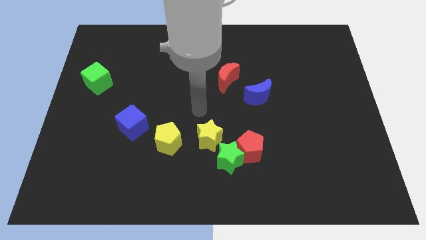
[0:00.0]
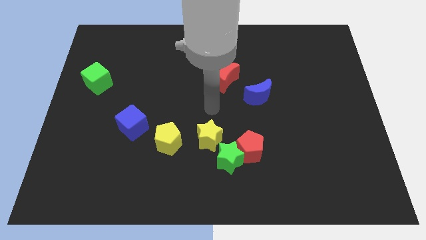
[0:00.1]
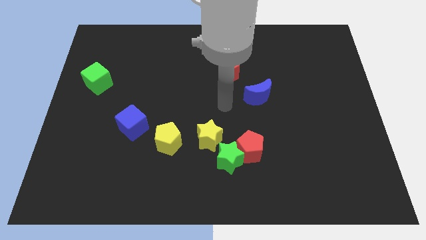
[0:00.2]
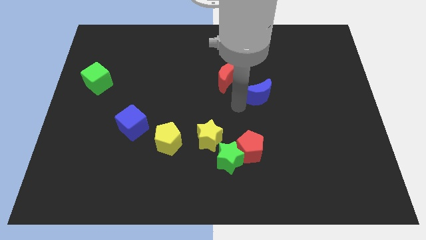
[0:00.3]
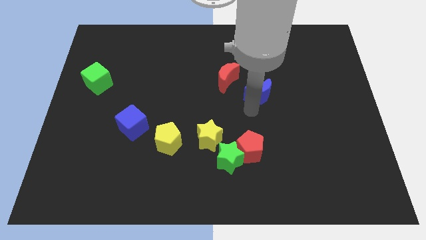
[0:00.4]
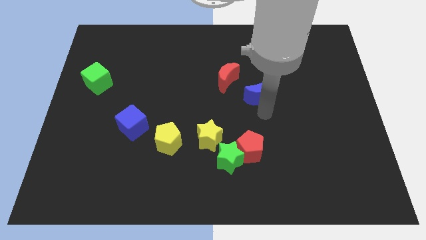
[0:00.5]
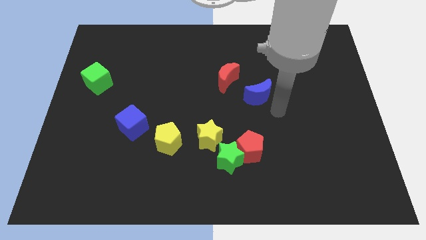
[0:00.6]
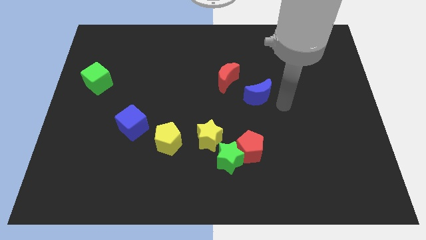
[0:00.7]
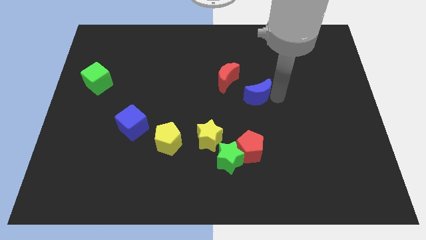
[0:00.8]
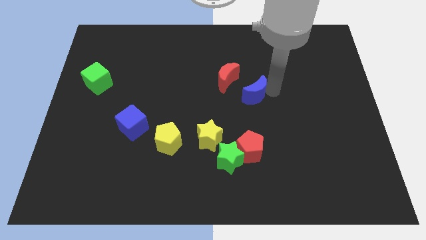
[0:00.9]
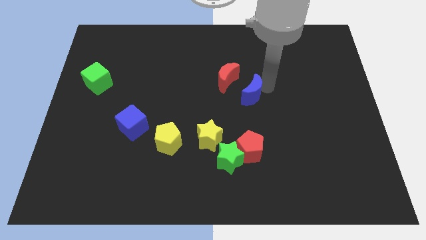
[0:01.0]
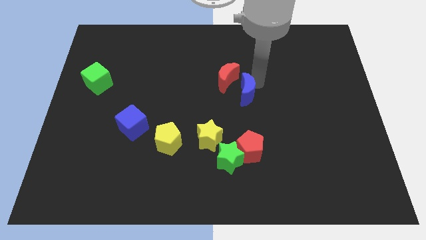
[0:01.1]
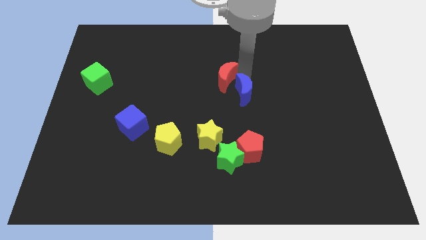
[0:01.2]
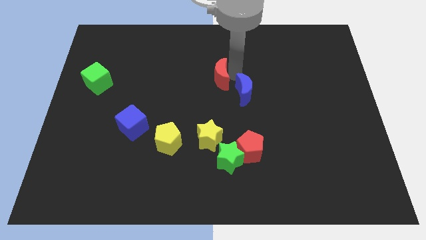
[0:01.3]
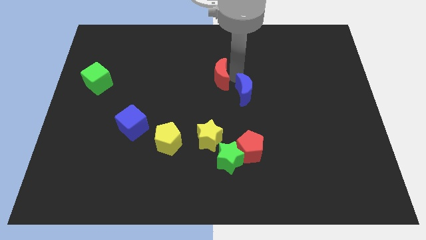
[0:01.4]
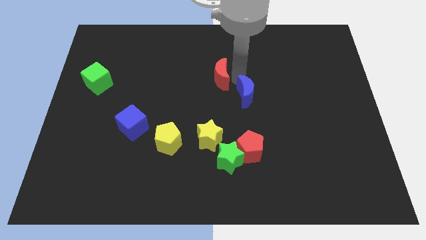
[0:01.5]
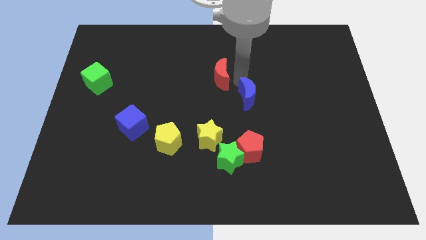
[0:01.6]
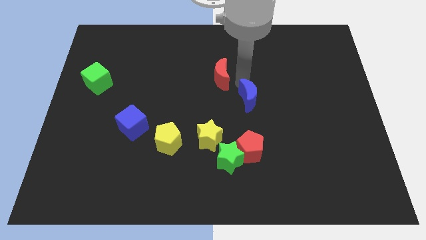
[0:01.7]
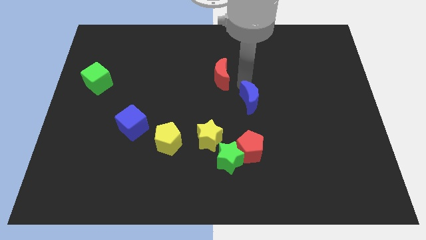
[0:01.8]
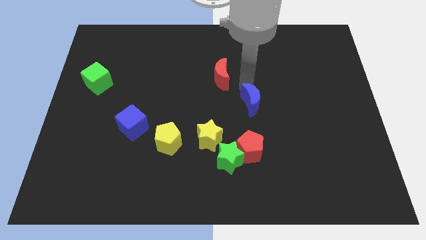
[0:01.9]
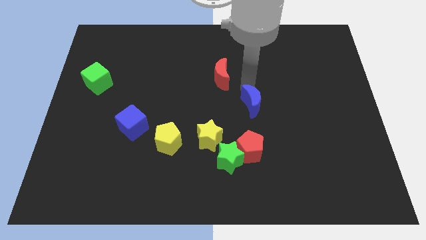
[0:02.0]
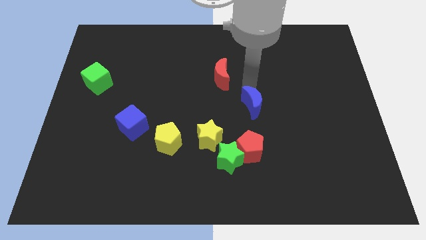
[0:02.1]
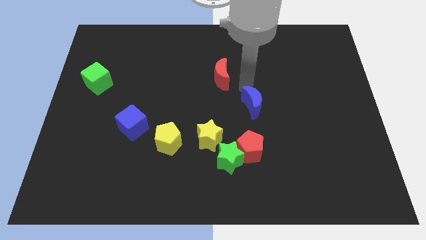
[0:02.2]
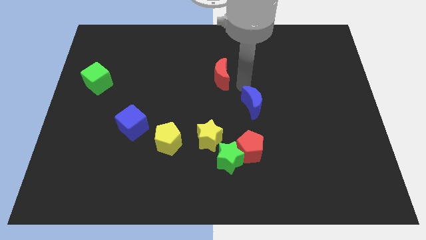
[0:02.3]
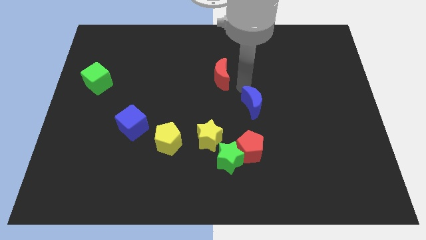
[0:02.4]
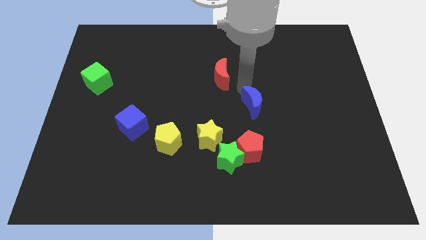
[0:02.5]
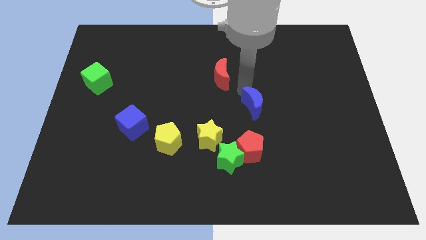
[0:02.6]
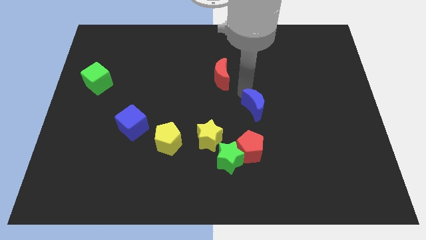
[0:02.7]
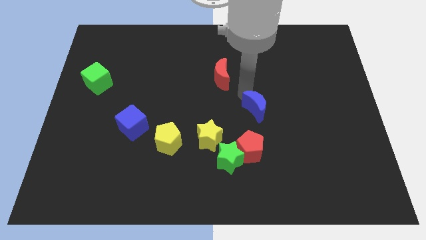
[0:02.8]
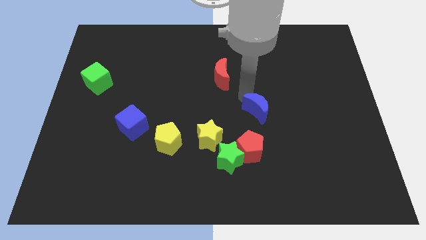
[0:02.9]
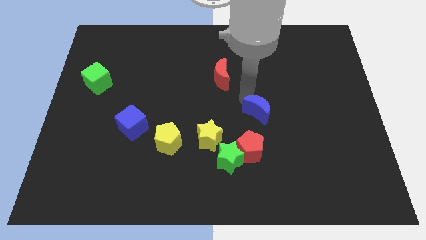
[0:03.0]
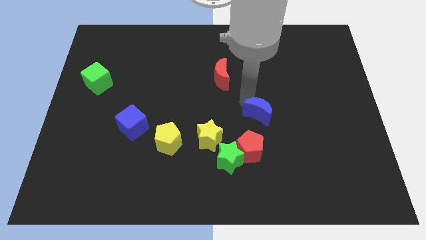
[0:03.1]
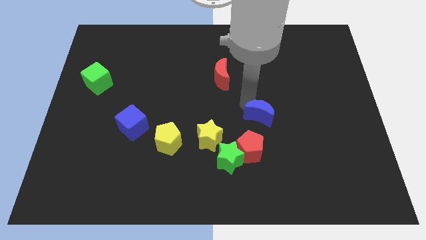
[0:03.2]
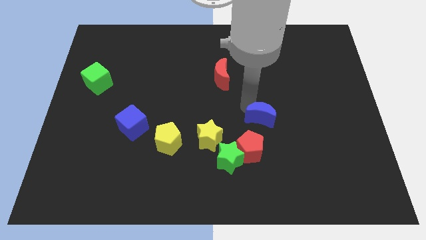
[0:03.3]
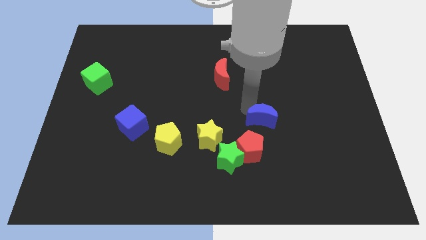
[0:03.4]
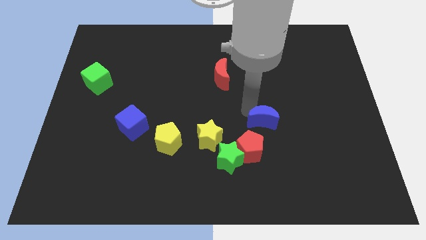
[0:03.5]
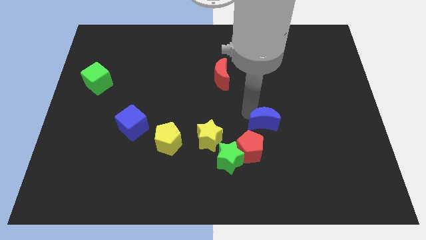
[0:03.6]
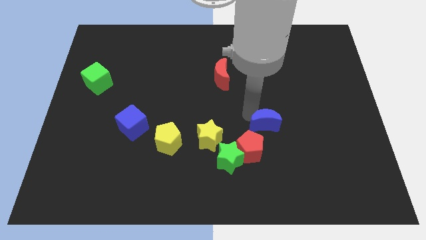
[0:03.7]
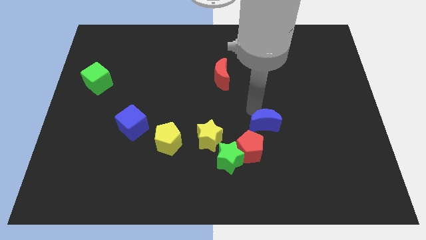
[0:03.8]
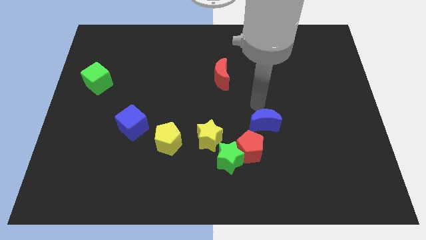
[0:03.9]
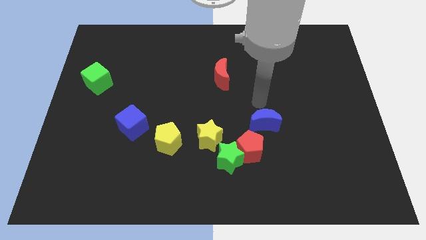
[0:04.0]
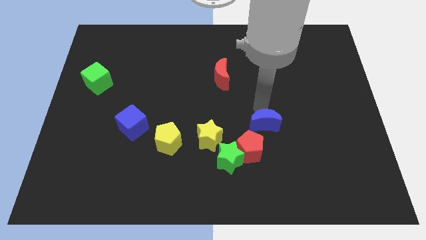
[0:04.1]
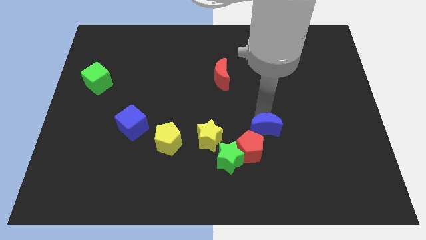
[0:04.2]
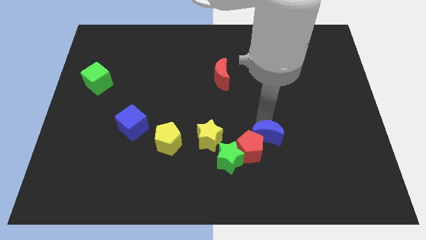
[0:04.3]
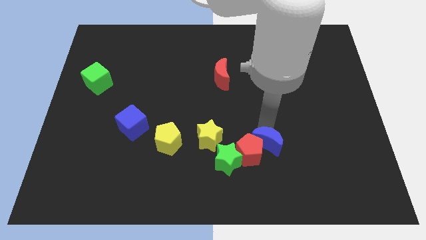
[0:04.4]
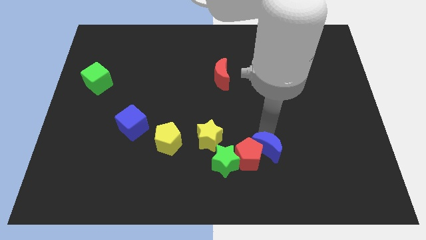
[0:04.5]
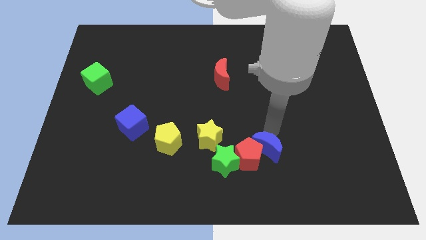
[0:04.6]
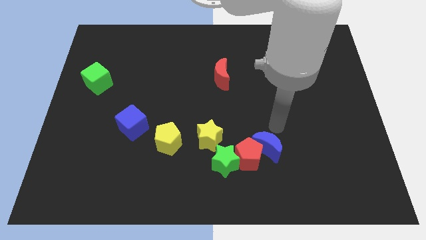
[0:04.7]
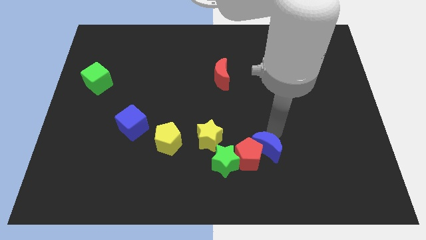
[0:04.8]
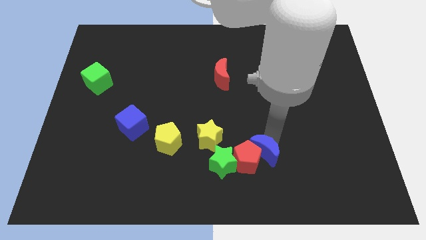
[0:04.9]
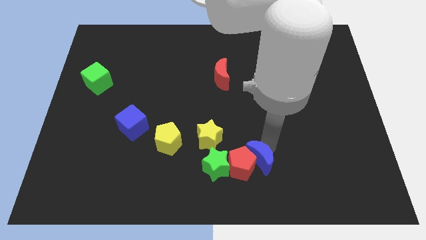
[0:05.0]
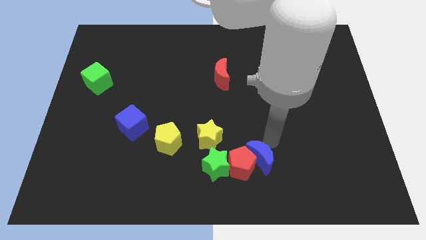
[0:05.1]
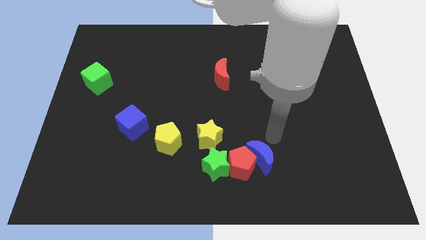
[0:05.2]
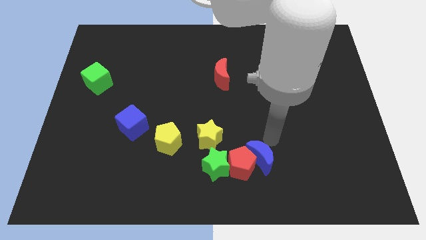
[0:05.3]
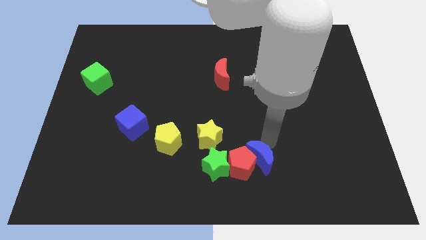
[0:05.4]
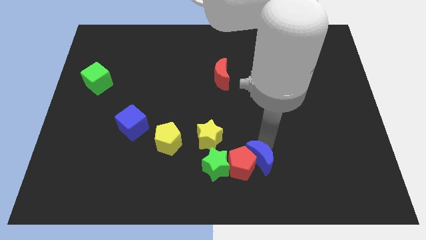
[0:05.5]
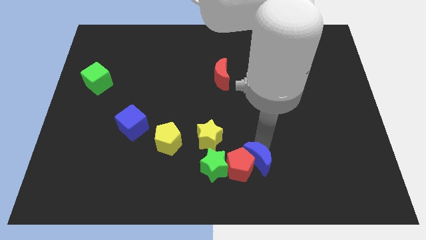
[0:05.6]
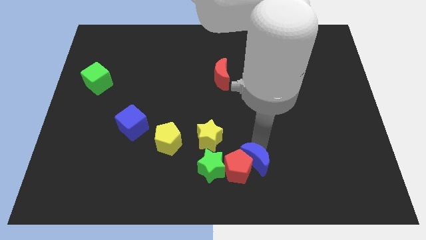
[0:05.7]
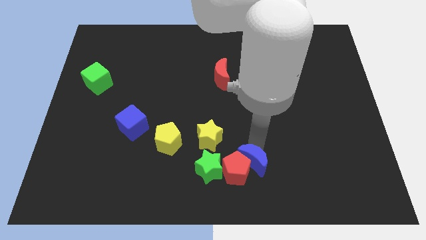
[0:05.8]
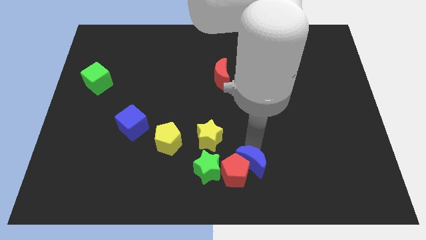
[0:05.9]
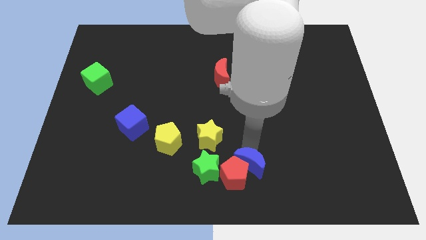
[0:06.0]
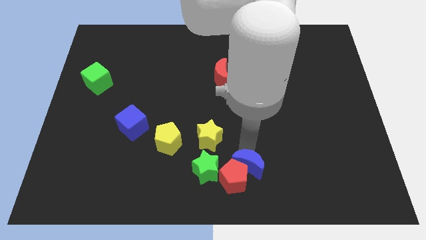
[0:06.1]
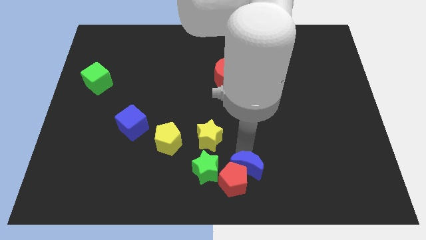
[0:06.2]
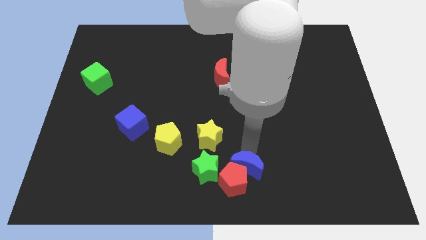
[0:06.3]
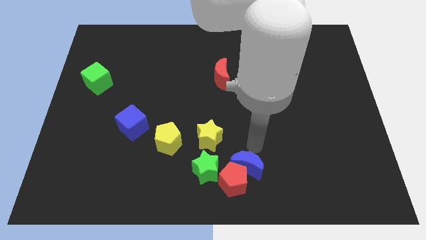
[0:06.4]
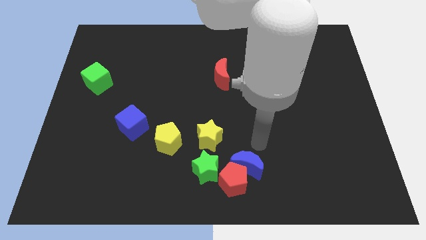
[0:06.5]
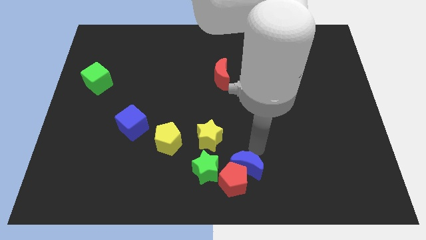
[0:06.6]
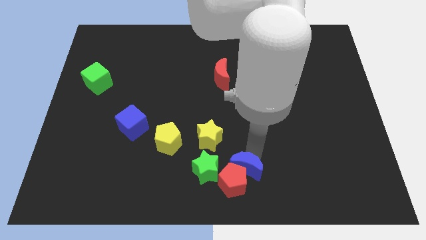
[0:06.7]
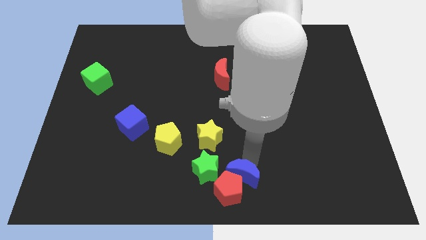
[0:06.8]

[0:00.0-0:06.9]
slide the blue moon to the bottom right side of the green star
